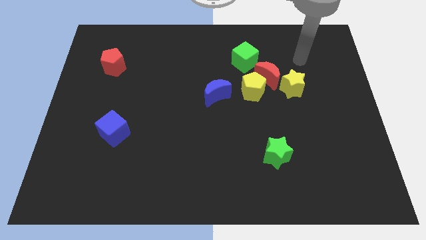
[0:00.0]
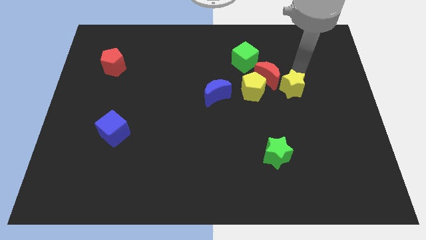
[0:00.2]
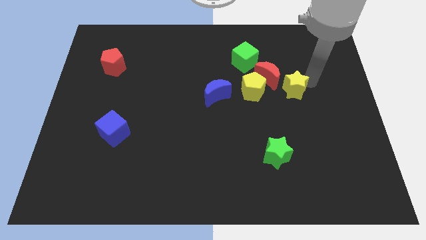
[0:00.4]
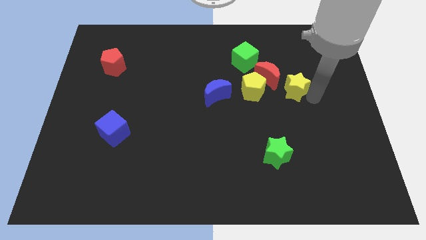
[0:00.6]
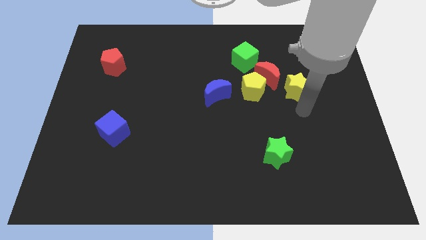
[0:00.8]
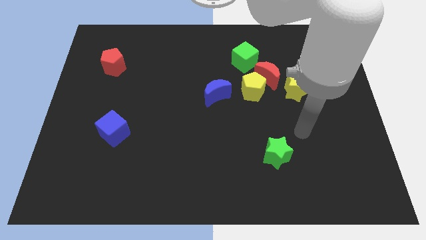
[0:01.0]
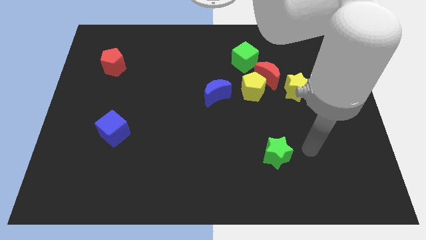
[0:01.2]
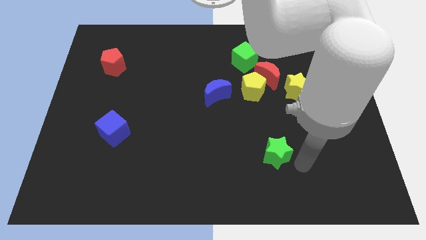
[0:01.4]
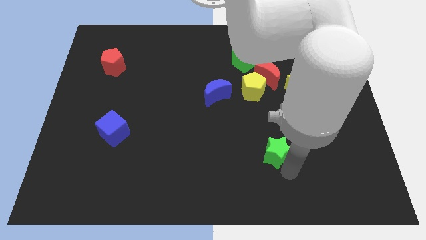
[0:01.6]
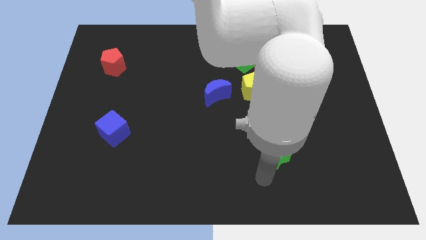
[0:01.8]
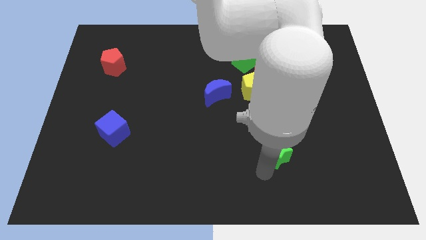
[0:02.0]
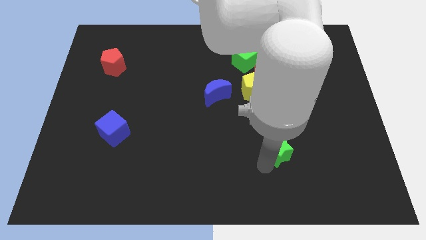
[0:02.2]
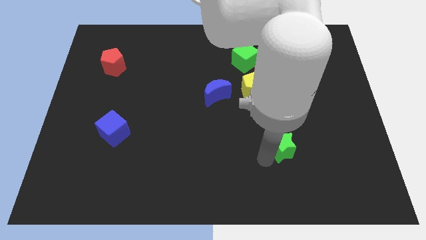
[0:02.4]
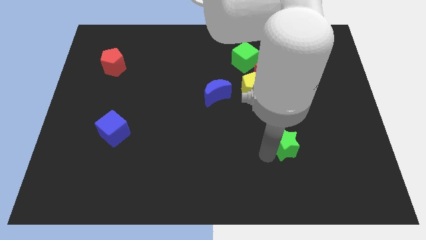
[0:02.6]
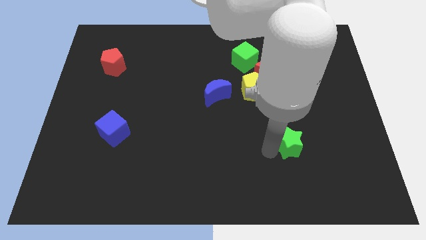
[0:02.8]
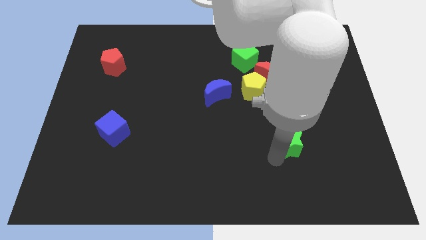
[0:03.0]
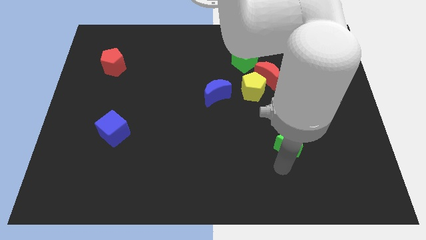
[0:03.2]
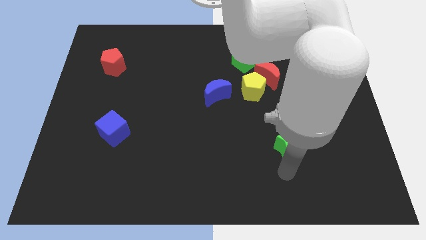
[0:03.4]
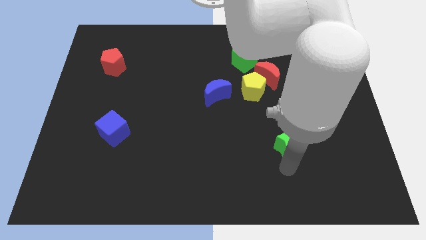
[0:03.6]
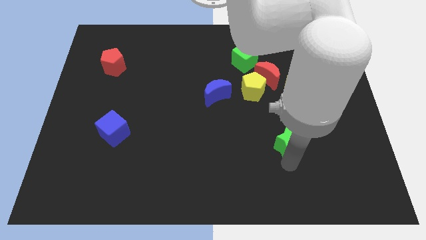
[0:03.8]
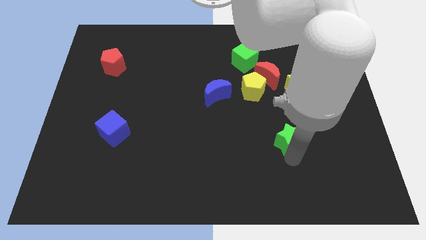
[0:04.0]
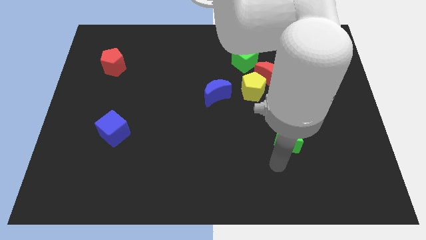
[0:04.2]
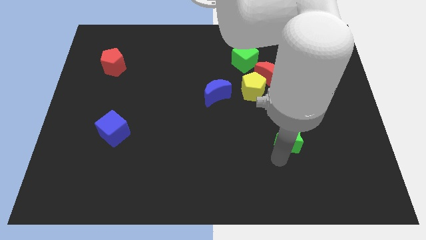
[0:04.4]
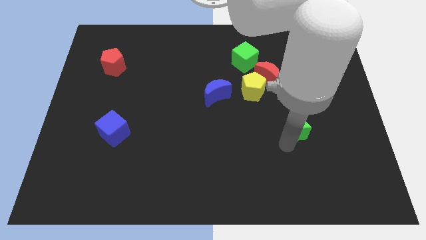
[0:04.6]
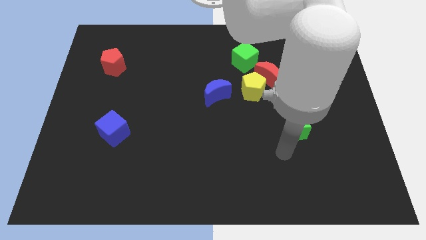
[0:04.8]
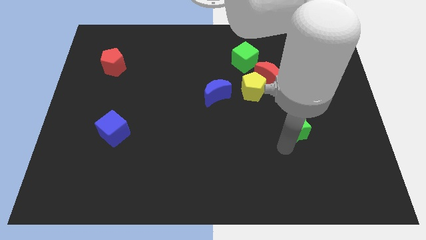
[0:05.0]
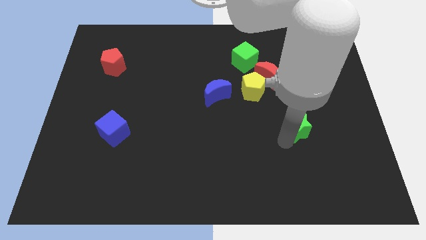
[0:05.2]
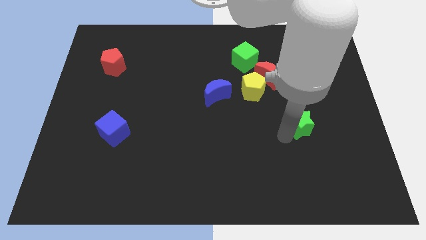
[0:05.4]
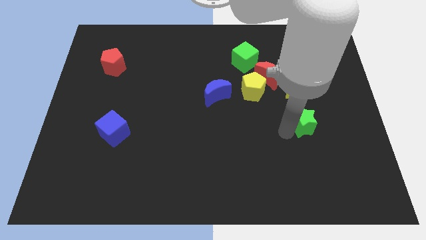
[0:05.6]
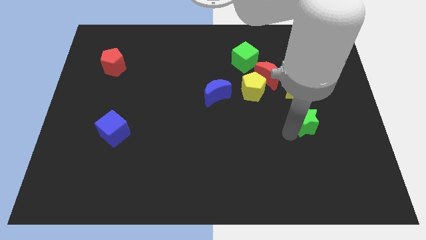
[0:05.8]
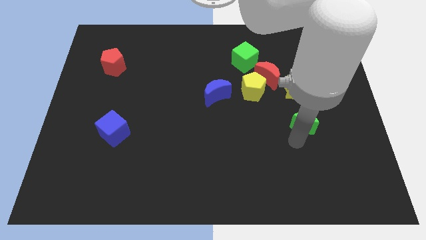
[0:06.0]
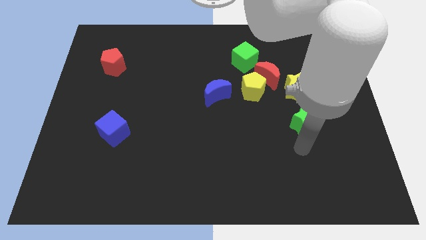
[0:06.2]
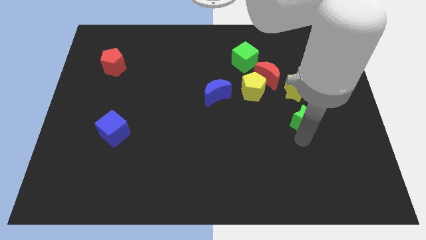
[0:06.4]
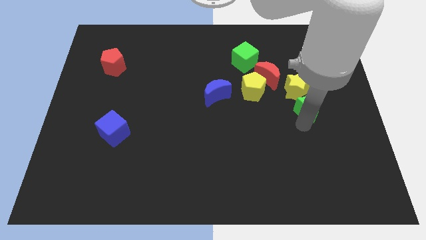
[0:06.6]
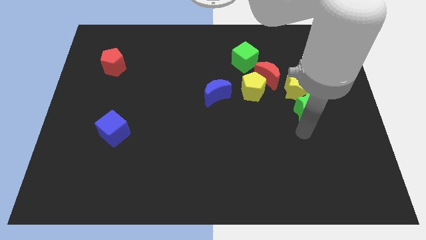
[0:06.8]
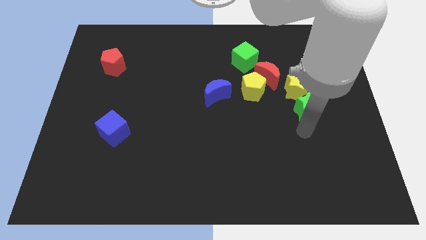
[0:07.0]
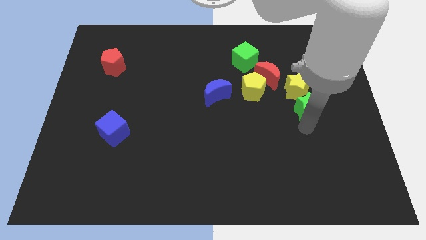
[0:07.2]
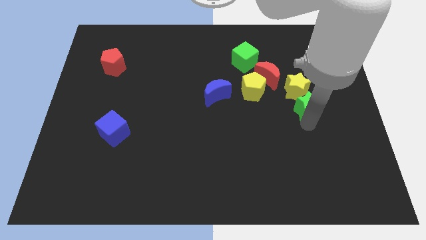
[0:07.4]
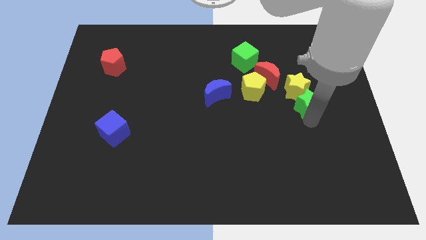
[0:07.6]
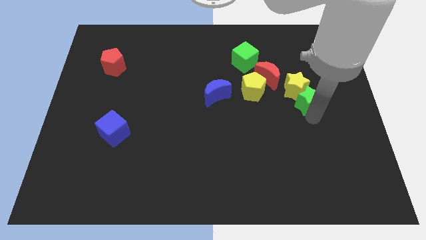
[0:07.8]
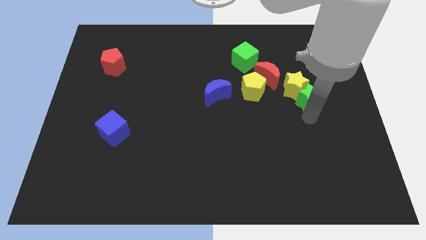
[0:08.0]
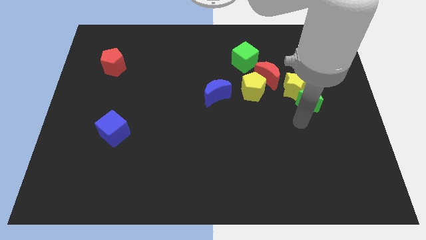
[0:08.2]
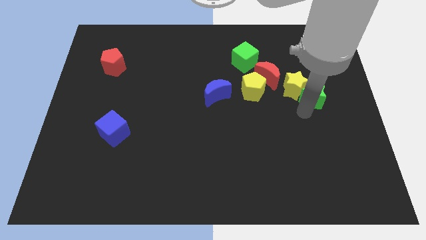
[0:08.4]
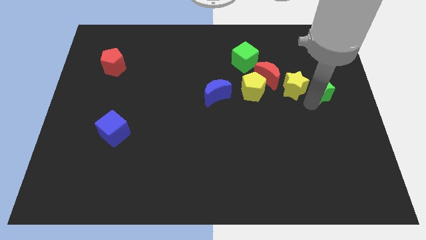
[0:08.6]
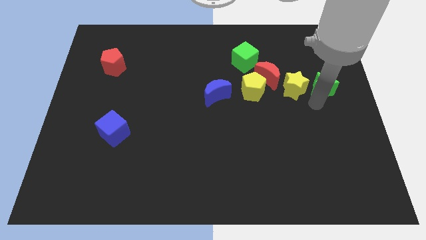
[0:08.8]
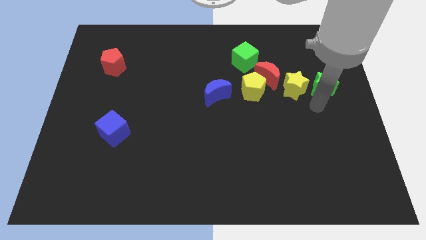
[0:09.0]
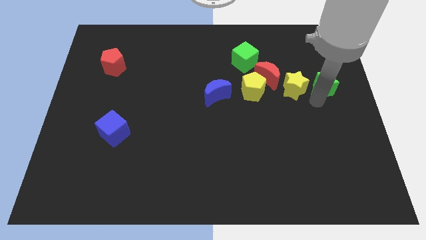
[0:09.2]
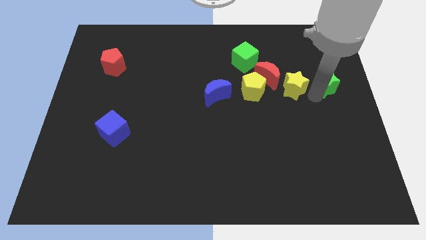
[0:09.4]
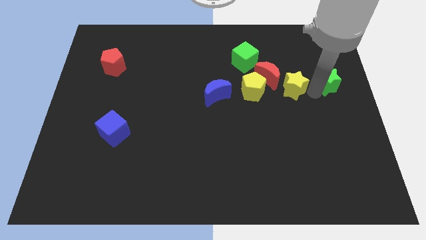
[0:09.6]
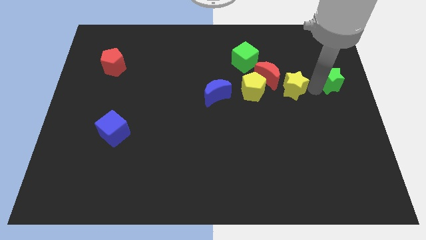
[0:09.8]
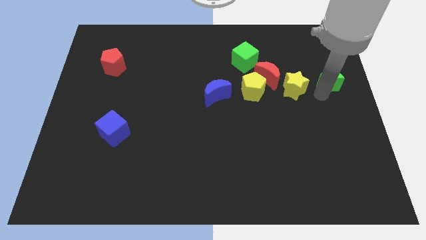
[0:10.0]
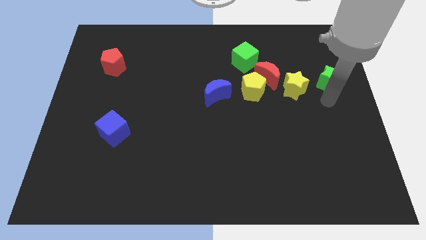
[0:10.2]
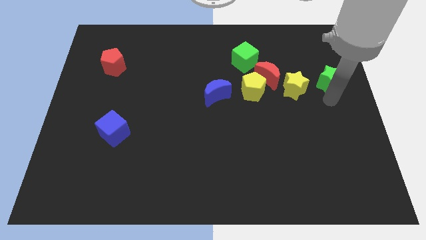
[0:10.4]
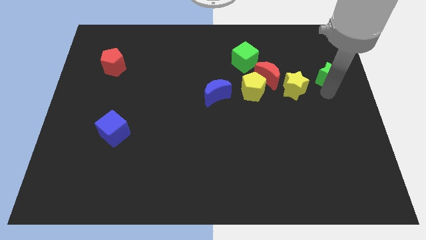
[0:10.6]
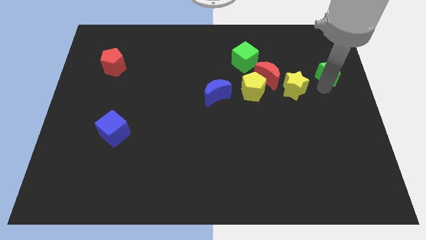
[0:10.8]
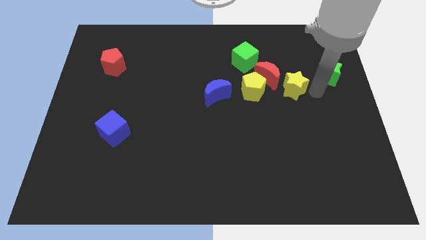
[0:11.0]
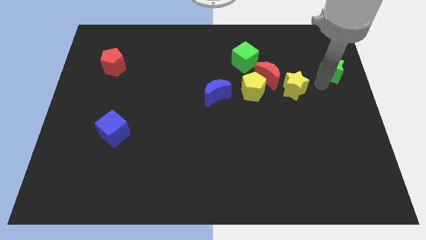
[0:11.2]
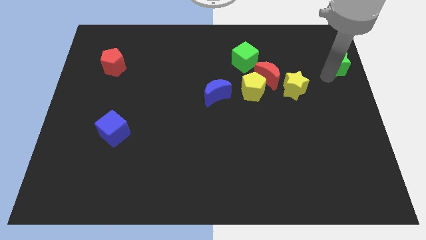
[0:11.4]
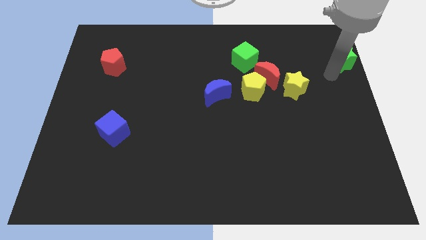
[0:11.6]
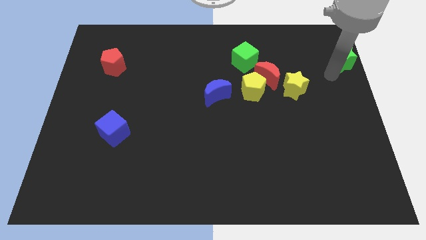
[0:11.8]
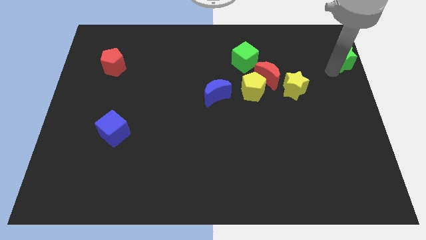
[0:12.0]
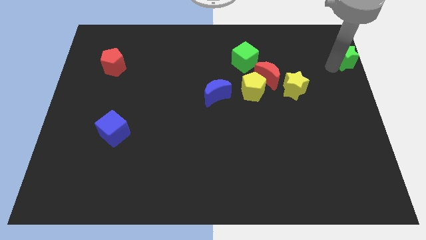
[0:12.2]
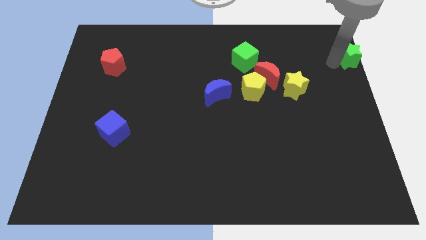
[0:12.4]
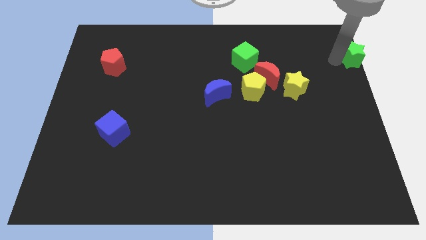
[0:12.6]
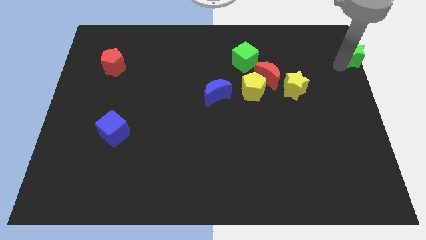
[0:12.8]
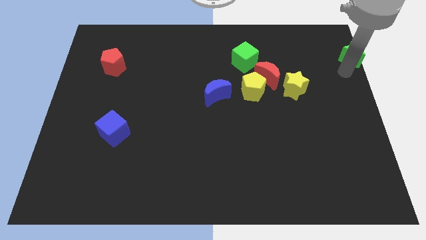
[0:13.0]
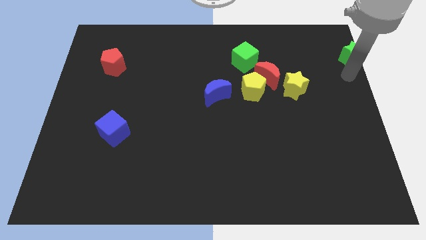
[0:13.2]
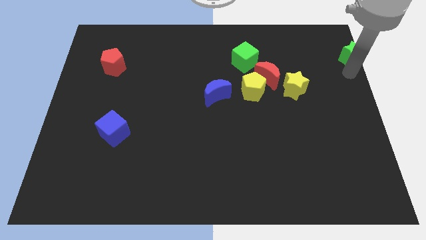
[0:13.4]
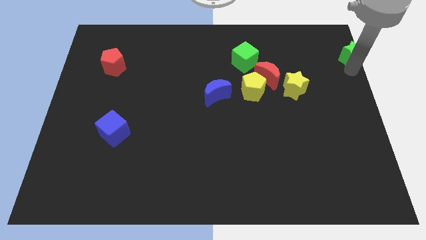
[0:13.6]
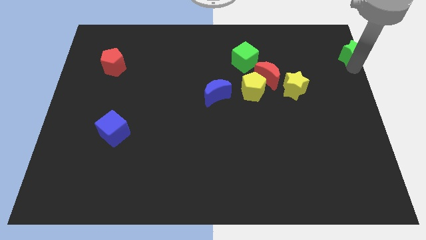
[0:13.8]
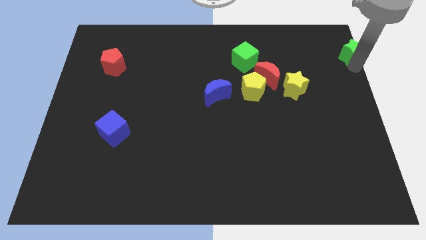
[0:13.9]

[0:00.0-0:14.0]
slide the green star to the upper right corner
